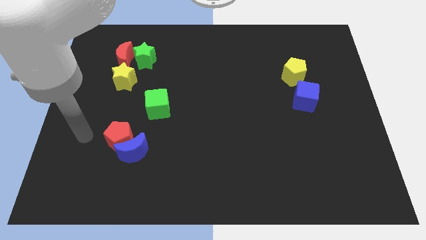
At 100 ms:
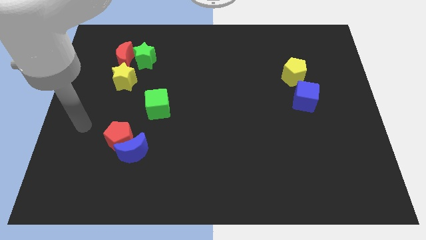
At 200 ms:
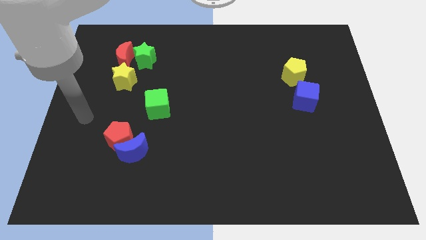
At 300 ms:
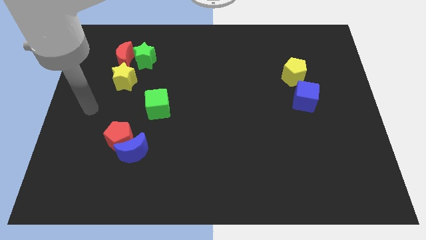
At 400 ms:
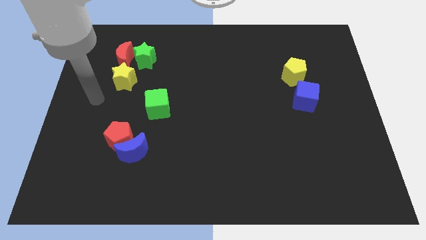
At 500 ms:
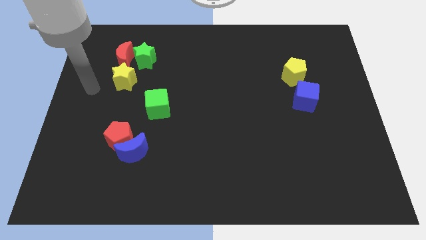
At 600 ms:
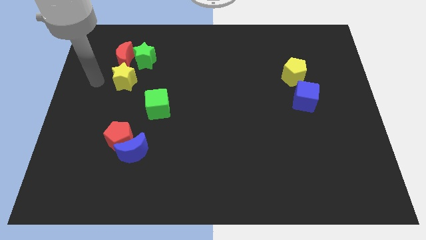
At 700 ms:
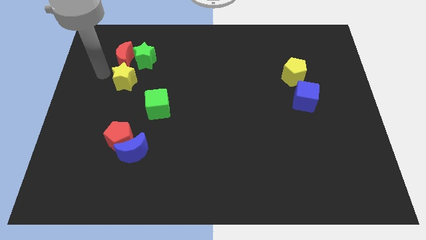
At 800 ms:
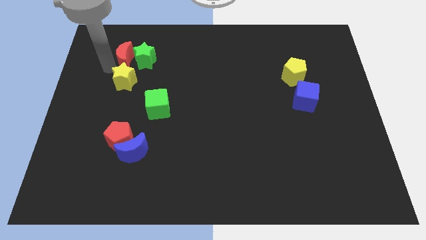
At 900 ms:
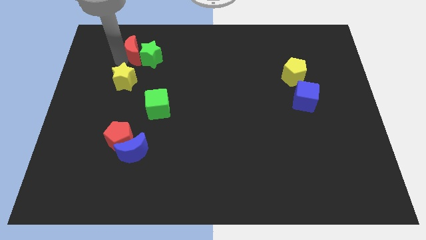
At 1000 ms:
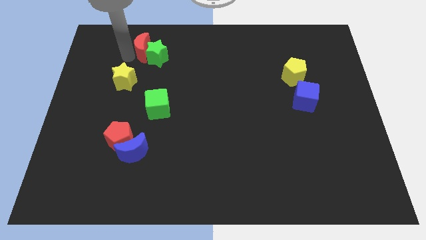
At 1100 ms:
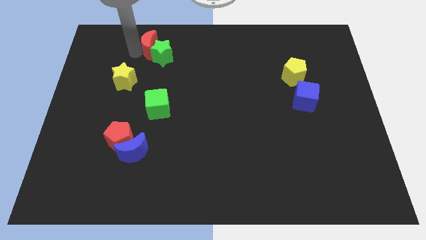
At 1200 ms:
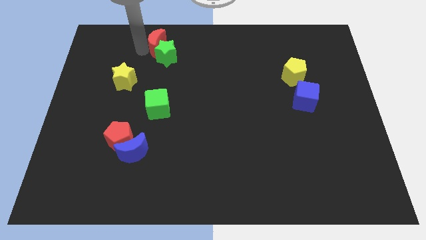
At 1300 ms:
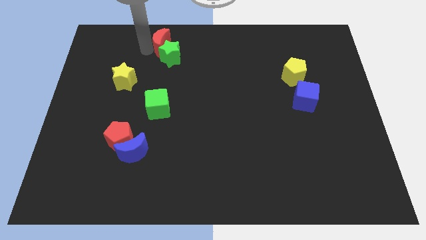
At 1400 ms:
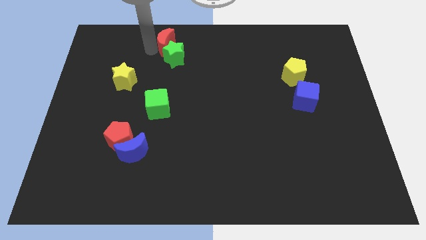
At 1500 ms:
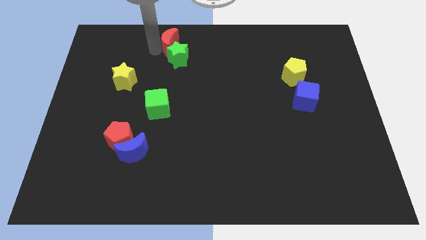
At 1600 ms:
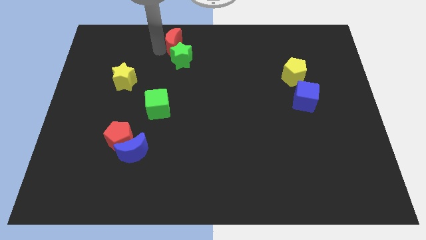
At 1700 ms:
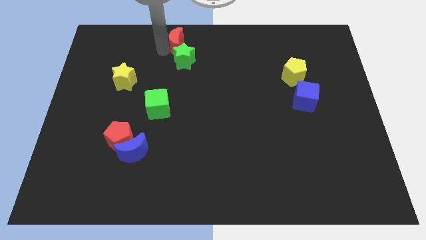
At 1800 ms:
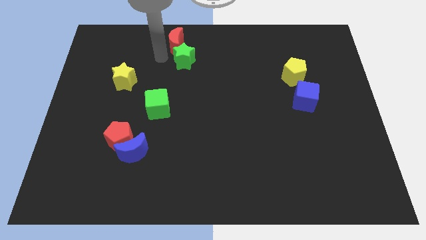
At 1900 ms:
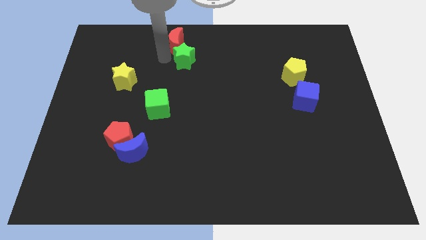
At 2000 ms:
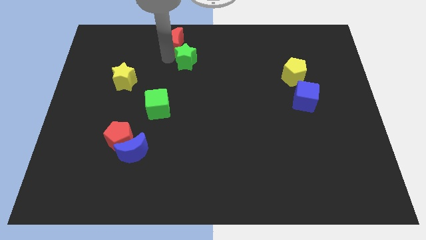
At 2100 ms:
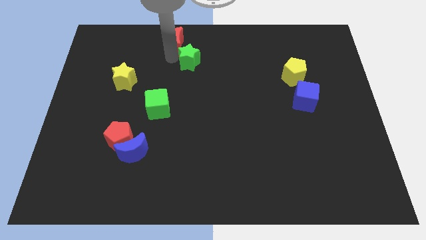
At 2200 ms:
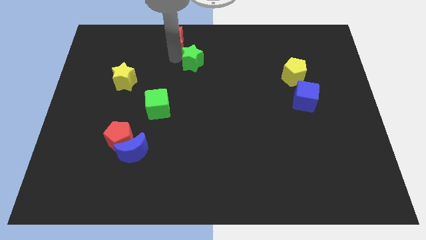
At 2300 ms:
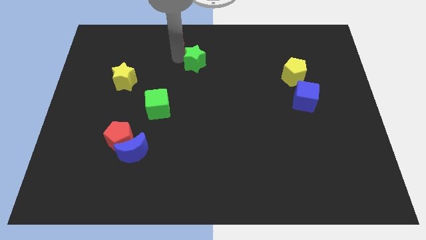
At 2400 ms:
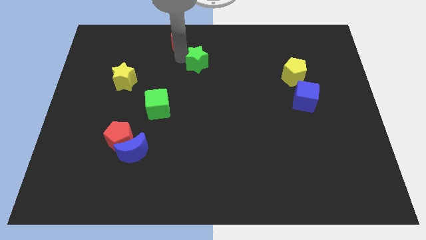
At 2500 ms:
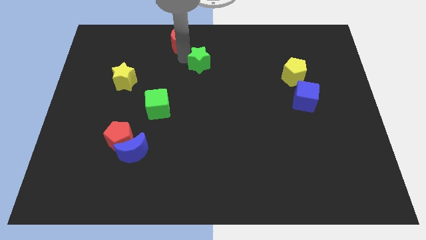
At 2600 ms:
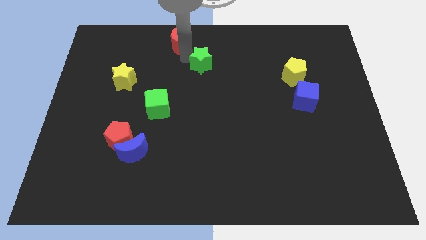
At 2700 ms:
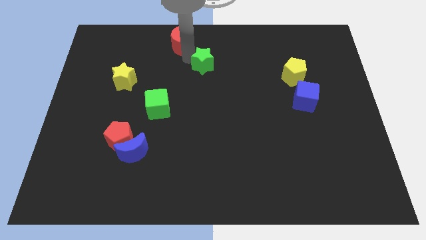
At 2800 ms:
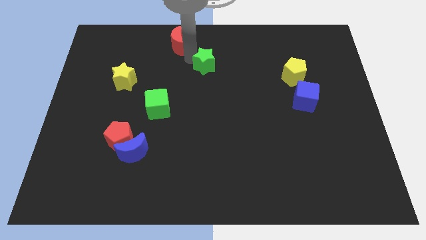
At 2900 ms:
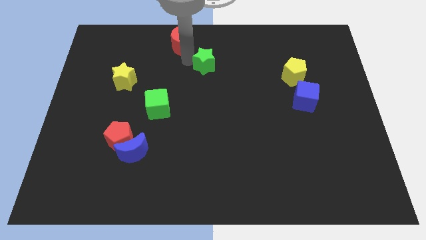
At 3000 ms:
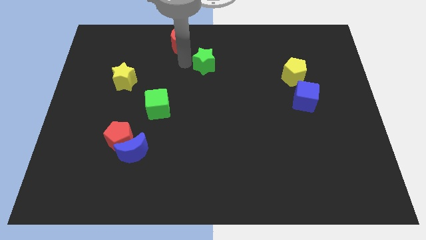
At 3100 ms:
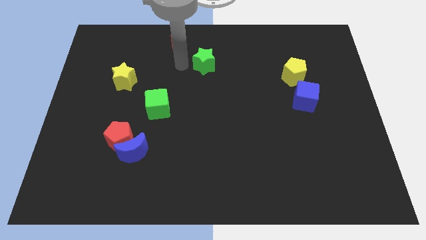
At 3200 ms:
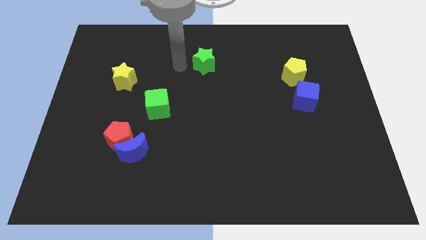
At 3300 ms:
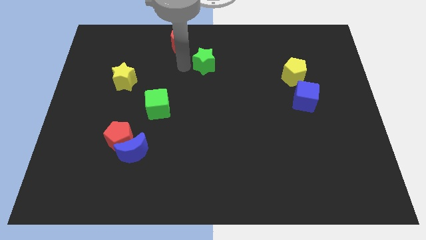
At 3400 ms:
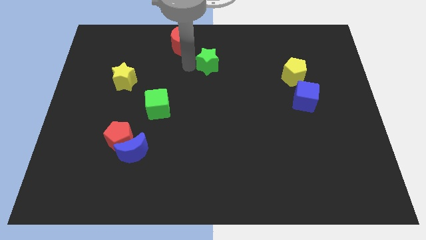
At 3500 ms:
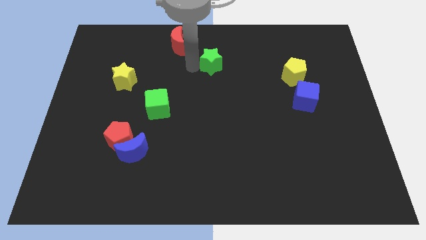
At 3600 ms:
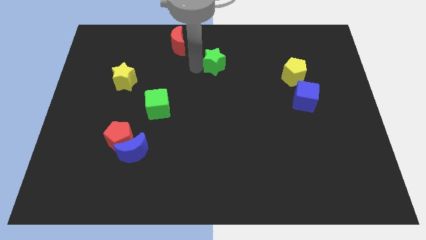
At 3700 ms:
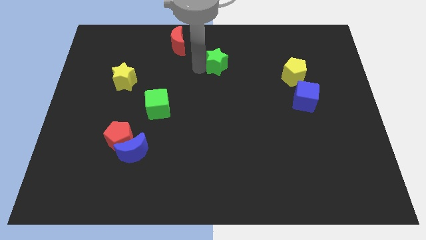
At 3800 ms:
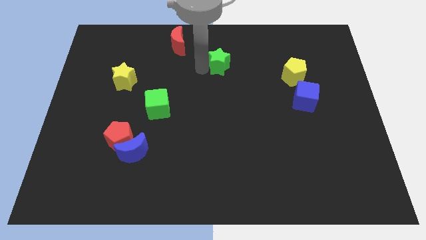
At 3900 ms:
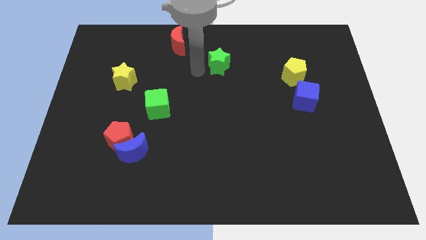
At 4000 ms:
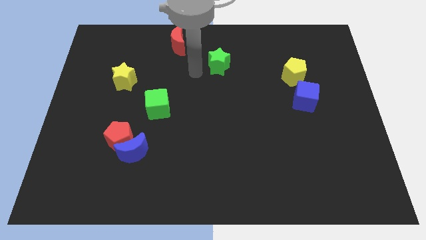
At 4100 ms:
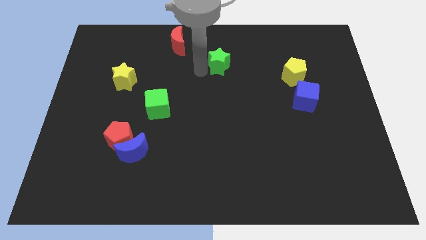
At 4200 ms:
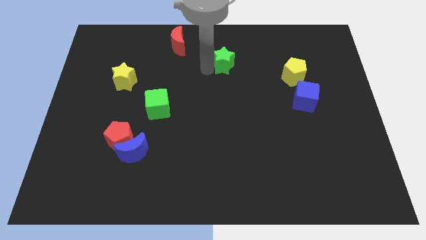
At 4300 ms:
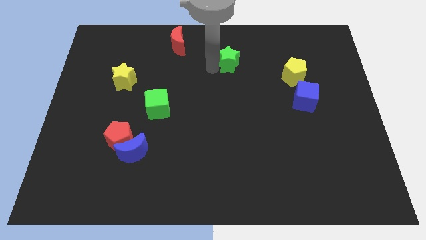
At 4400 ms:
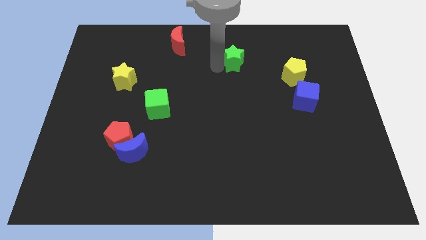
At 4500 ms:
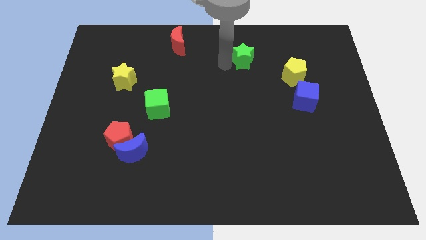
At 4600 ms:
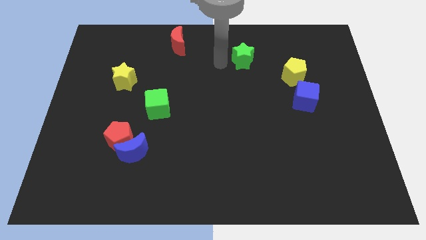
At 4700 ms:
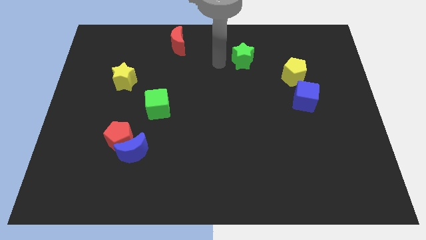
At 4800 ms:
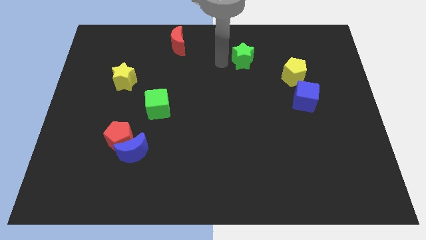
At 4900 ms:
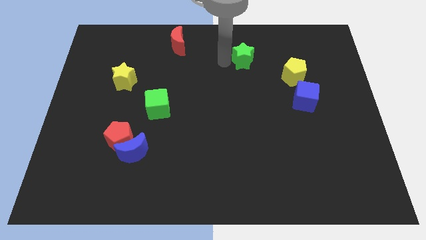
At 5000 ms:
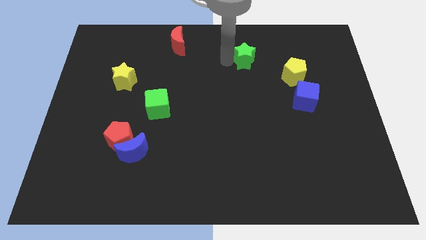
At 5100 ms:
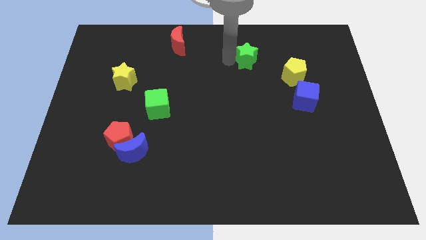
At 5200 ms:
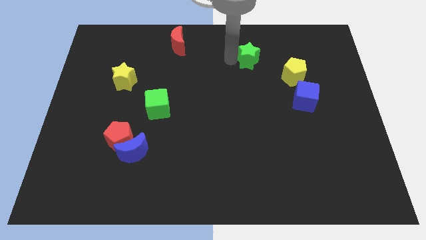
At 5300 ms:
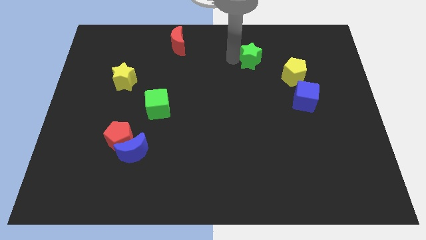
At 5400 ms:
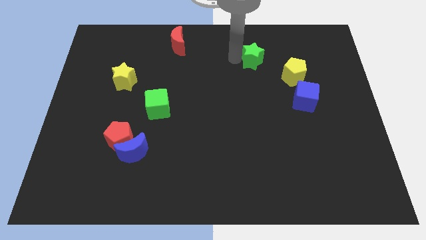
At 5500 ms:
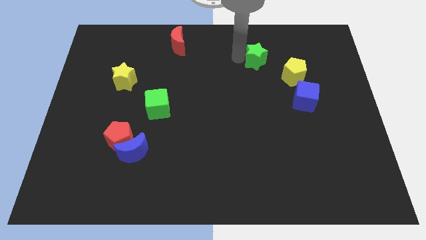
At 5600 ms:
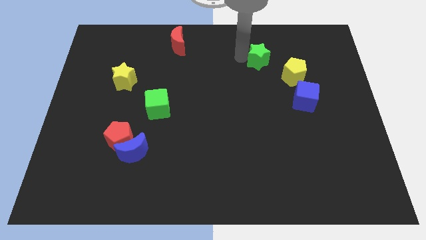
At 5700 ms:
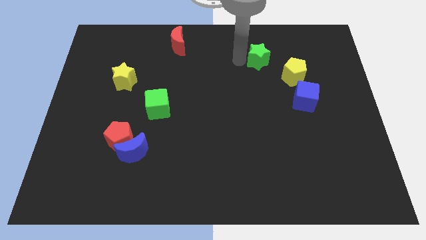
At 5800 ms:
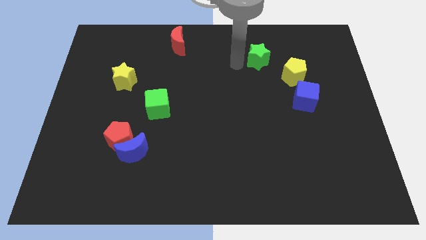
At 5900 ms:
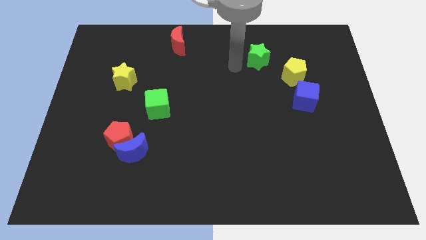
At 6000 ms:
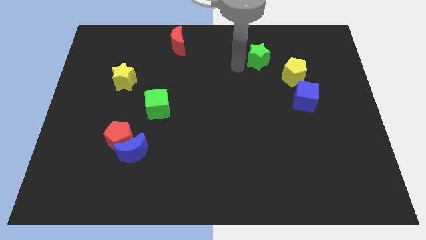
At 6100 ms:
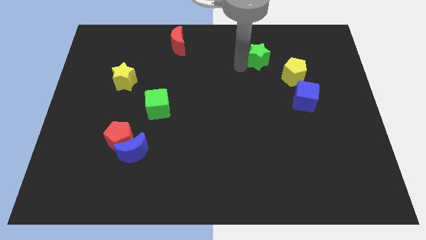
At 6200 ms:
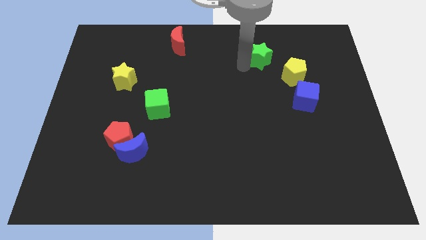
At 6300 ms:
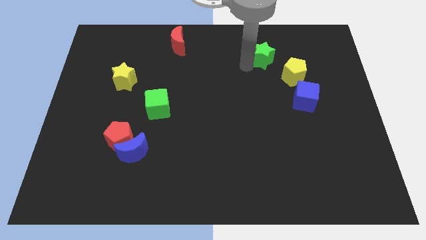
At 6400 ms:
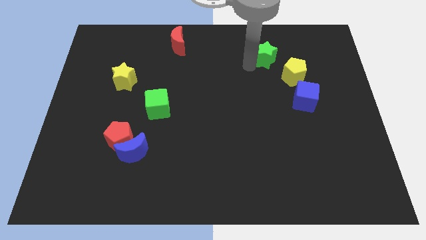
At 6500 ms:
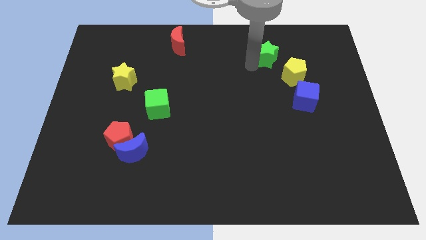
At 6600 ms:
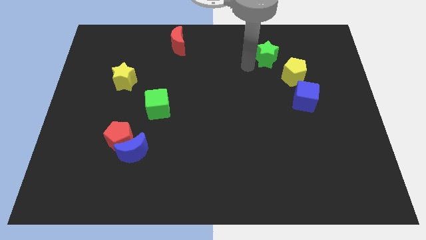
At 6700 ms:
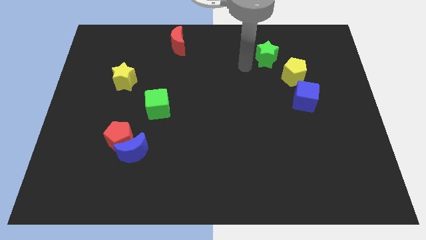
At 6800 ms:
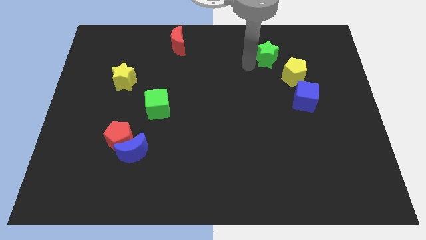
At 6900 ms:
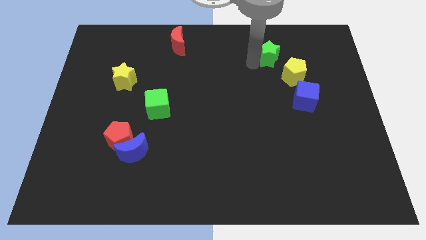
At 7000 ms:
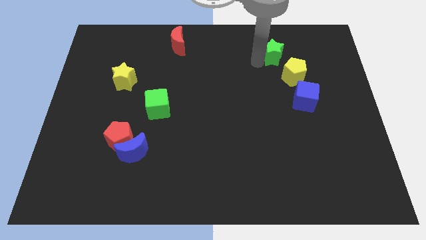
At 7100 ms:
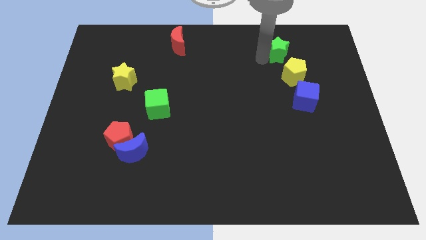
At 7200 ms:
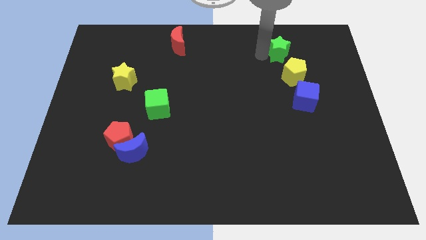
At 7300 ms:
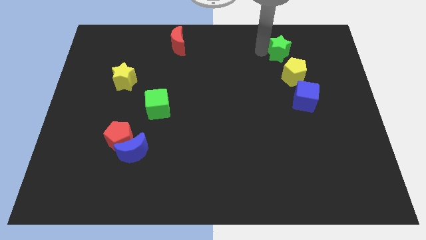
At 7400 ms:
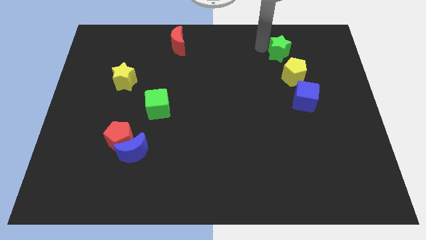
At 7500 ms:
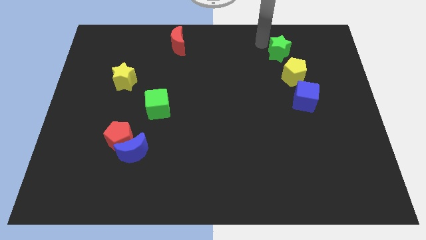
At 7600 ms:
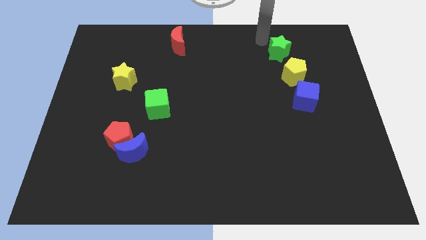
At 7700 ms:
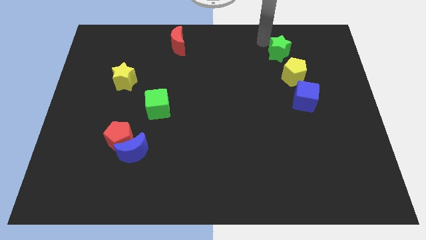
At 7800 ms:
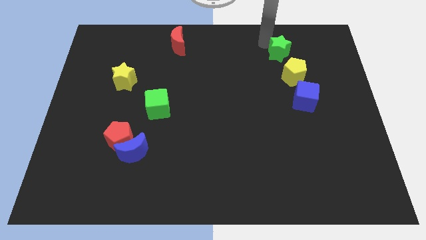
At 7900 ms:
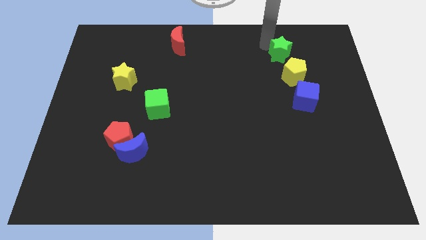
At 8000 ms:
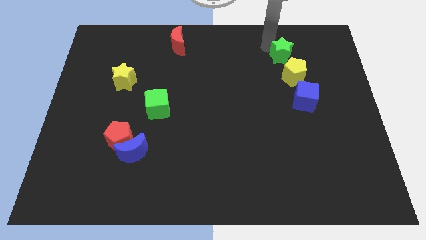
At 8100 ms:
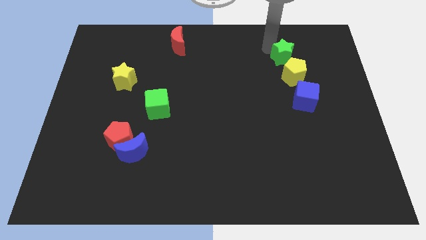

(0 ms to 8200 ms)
push the green star to the top of the blue cube
